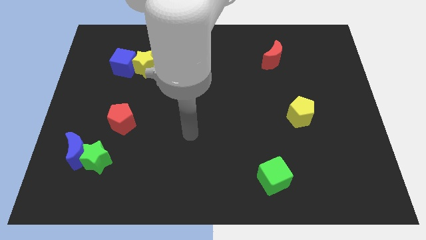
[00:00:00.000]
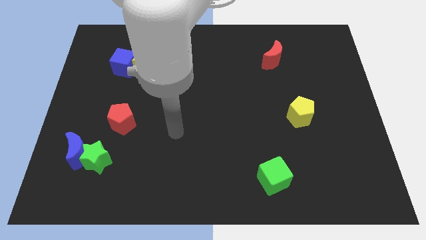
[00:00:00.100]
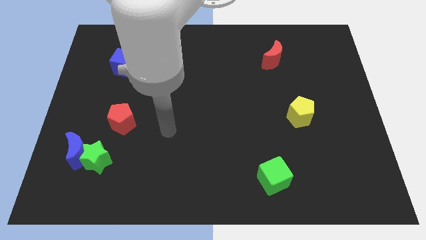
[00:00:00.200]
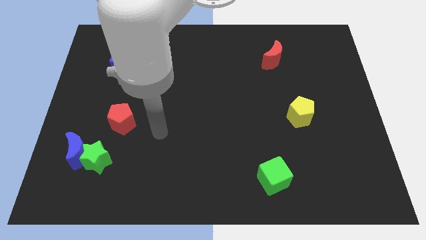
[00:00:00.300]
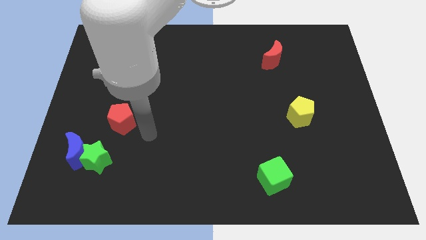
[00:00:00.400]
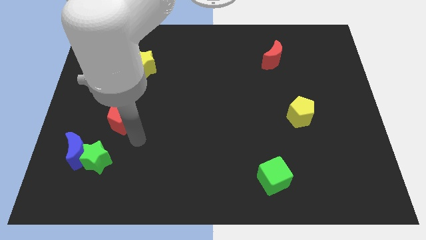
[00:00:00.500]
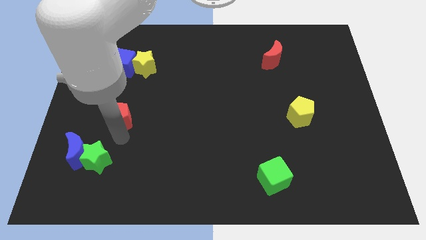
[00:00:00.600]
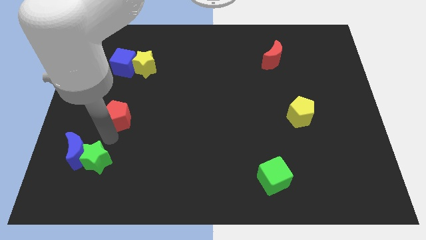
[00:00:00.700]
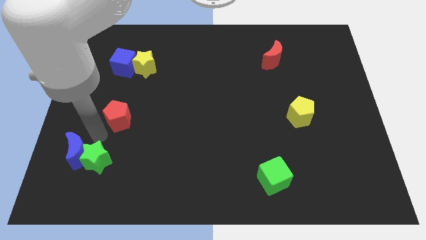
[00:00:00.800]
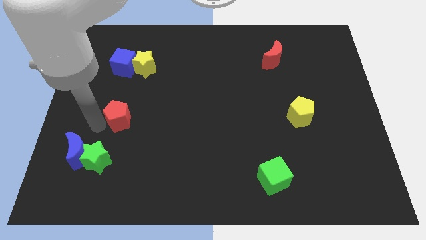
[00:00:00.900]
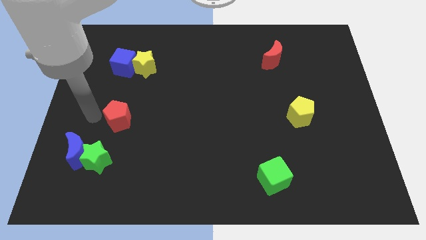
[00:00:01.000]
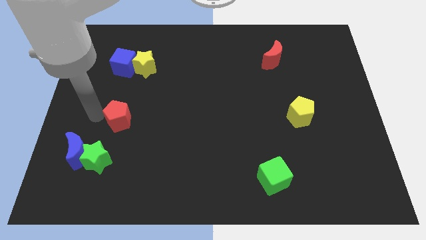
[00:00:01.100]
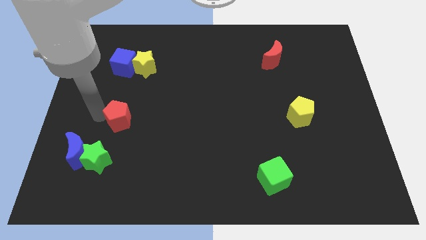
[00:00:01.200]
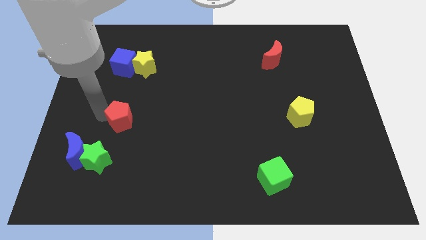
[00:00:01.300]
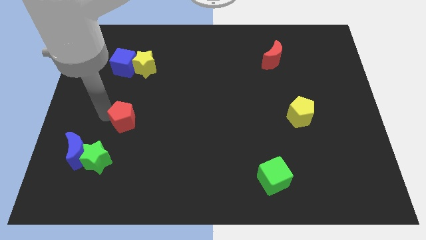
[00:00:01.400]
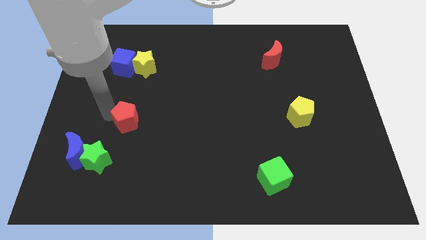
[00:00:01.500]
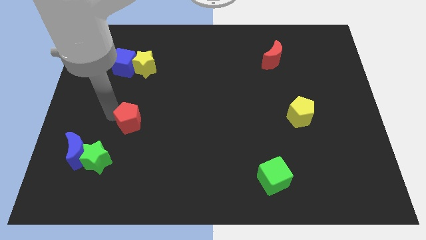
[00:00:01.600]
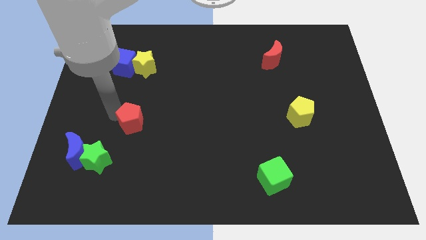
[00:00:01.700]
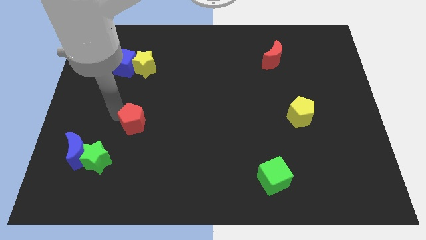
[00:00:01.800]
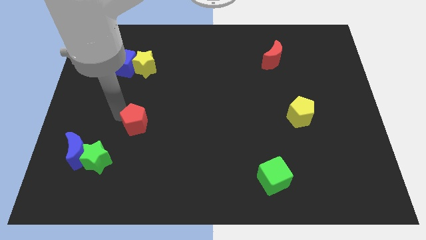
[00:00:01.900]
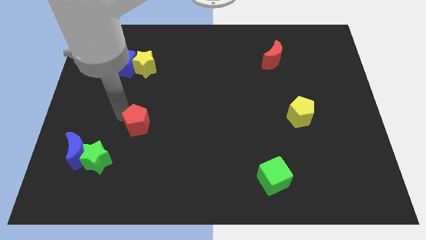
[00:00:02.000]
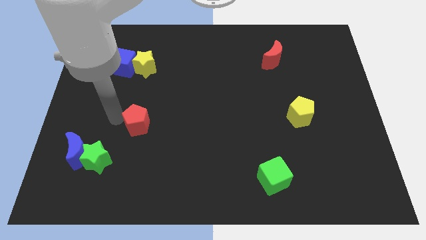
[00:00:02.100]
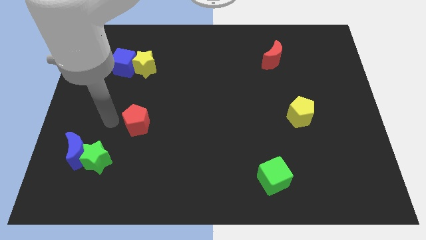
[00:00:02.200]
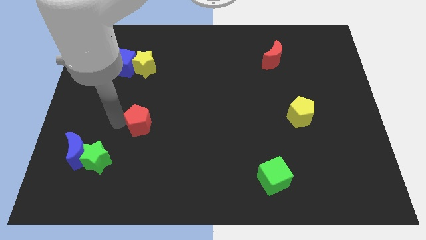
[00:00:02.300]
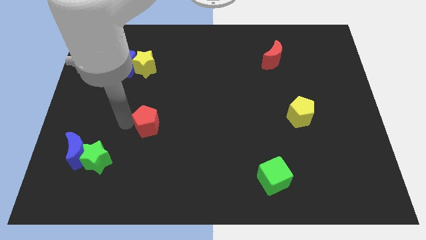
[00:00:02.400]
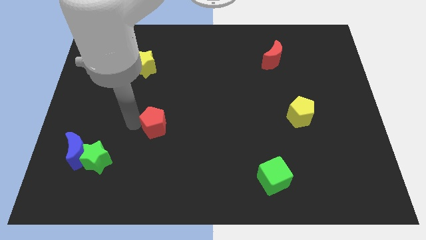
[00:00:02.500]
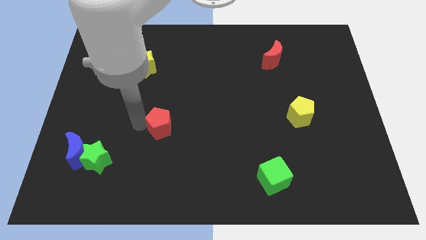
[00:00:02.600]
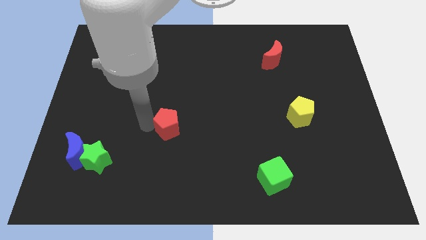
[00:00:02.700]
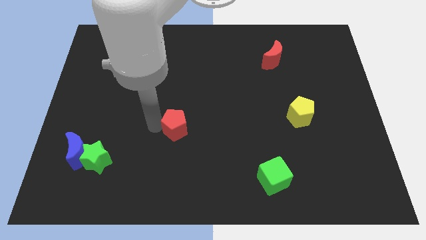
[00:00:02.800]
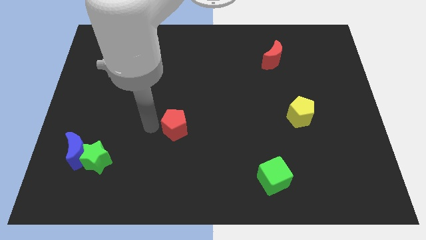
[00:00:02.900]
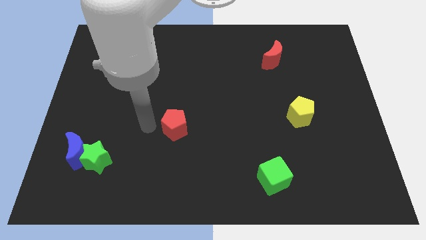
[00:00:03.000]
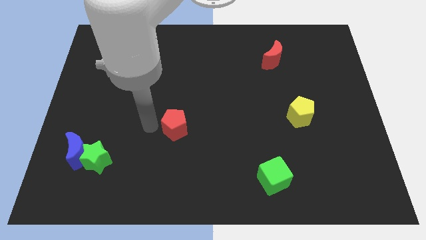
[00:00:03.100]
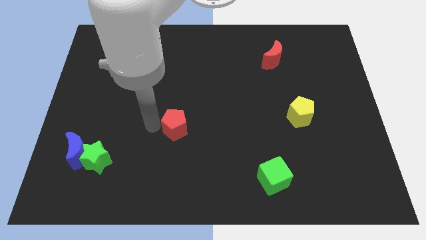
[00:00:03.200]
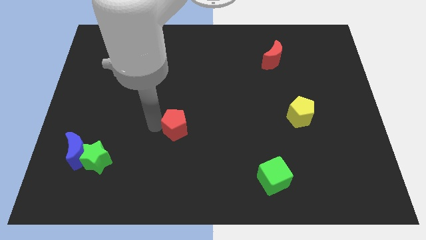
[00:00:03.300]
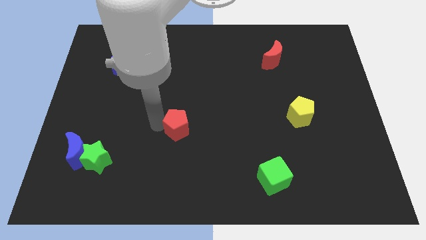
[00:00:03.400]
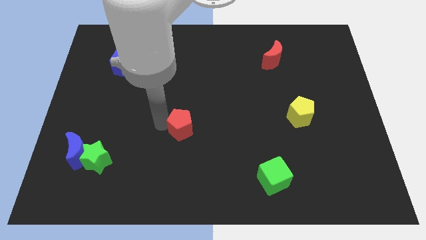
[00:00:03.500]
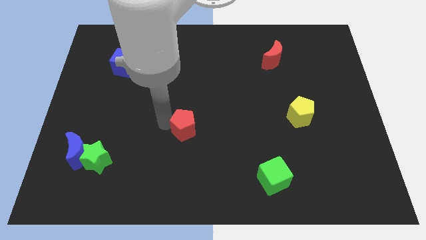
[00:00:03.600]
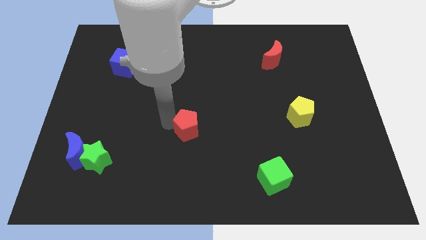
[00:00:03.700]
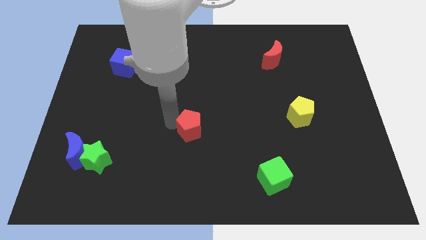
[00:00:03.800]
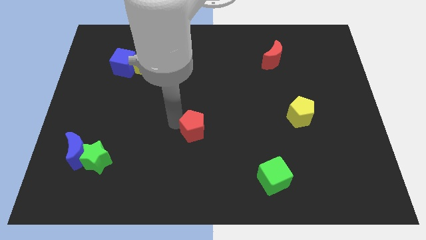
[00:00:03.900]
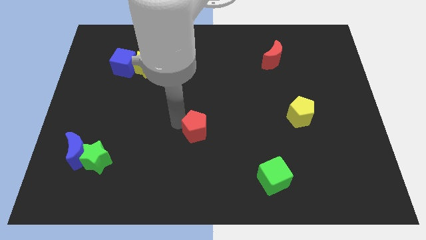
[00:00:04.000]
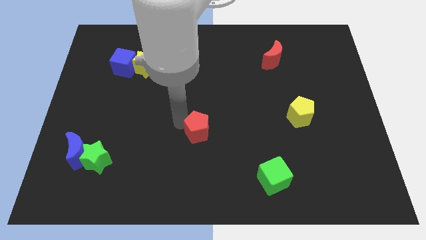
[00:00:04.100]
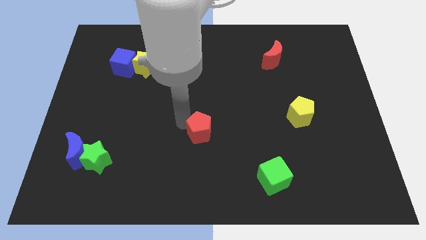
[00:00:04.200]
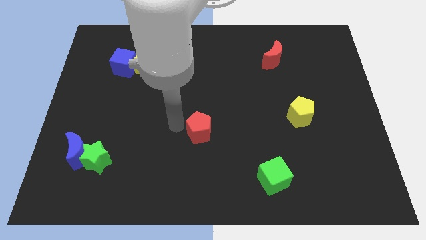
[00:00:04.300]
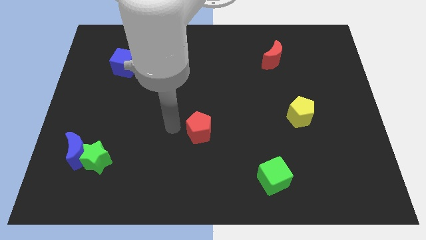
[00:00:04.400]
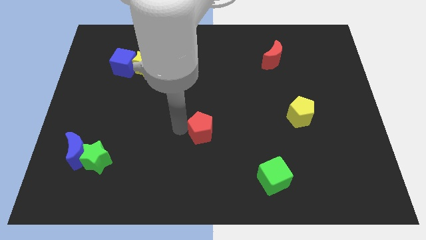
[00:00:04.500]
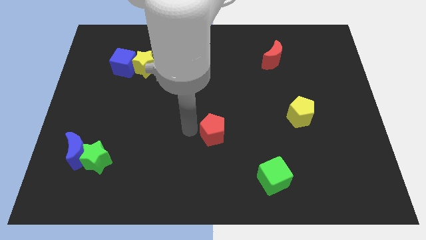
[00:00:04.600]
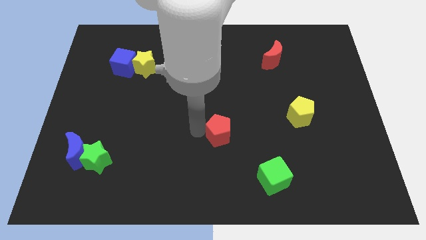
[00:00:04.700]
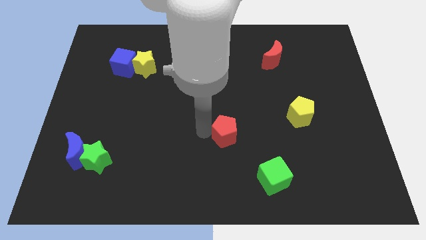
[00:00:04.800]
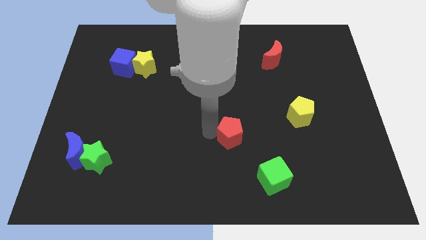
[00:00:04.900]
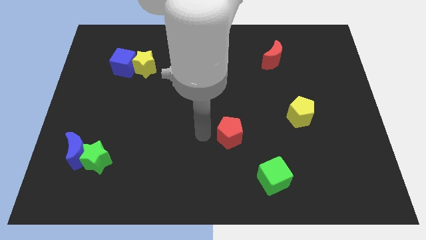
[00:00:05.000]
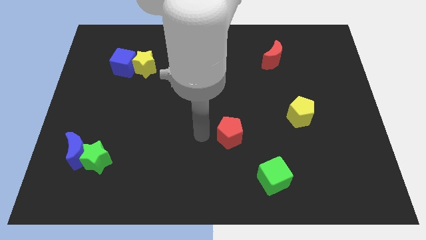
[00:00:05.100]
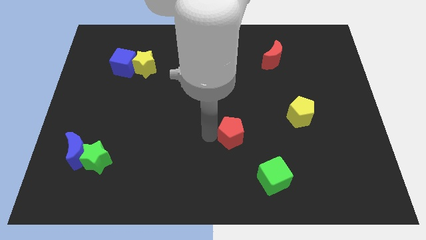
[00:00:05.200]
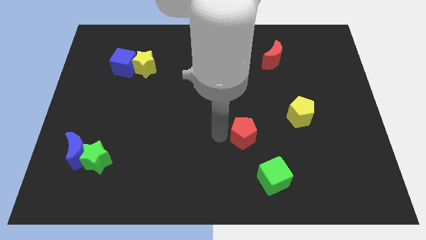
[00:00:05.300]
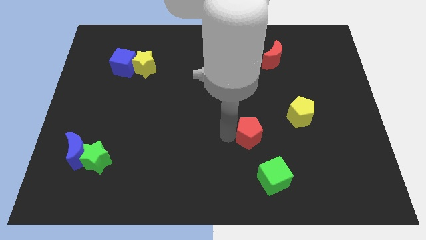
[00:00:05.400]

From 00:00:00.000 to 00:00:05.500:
push the red pentagon above the green cube

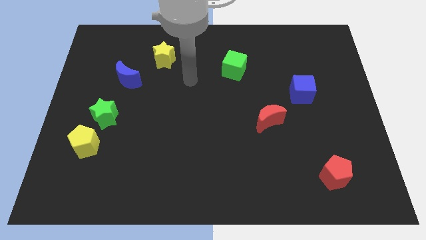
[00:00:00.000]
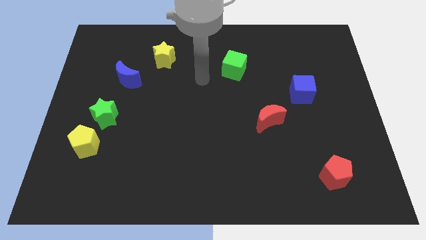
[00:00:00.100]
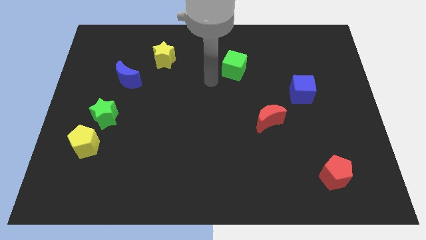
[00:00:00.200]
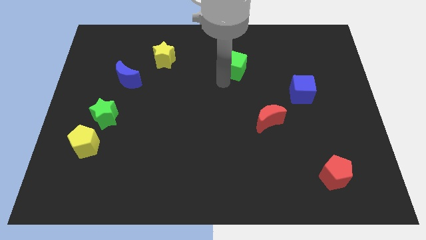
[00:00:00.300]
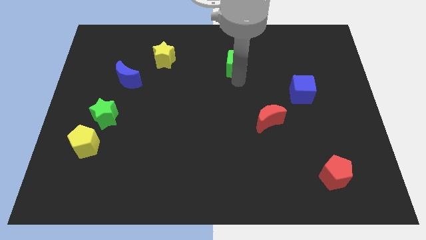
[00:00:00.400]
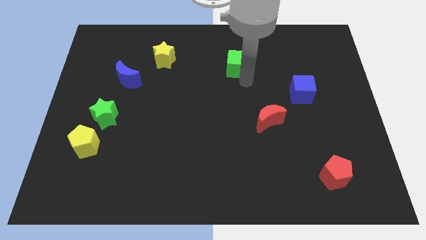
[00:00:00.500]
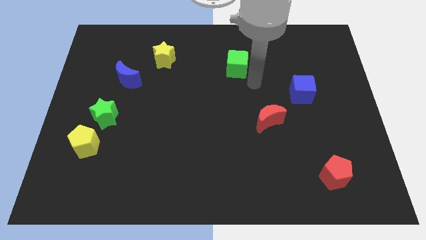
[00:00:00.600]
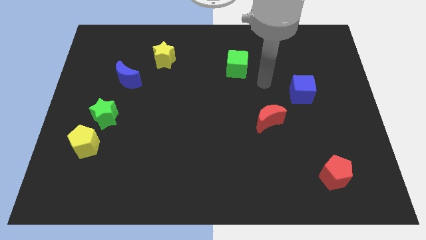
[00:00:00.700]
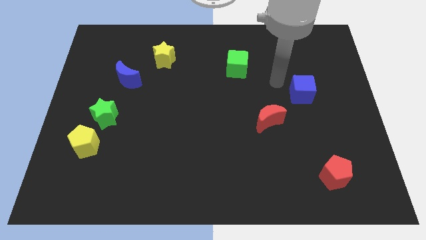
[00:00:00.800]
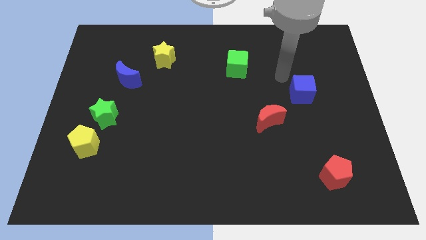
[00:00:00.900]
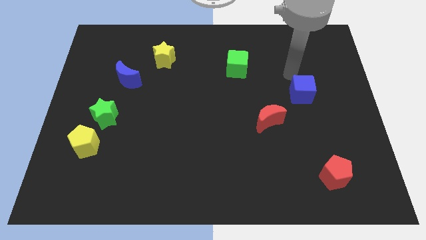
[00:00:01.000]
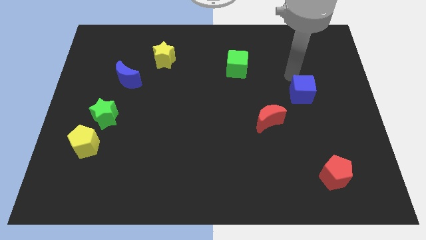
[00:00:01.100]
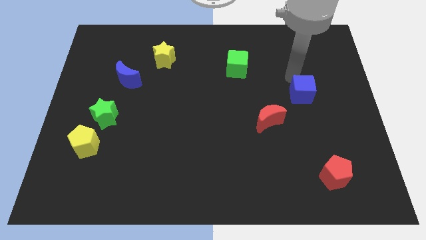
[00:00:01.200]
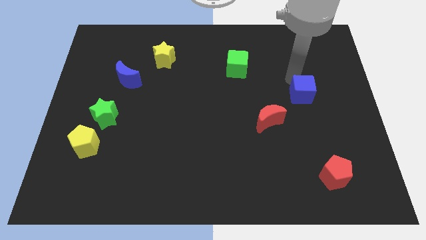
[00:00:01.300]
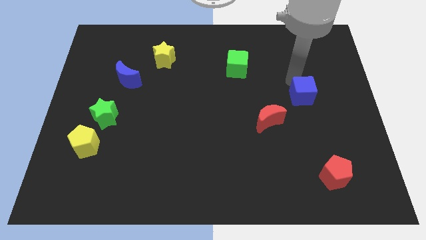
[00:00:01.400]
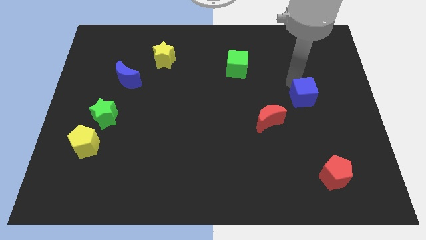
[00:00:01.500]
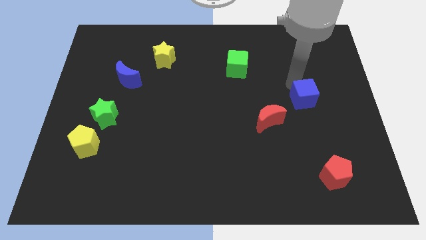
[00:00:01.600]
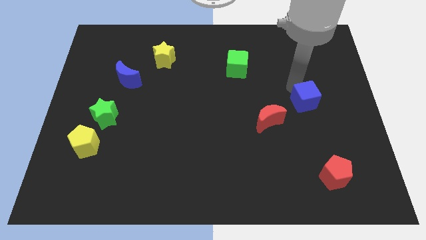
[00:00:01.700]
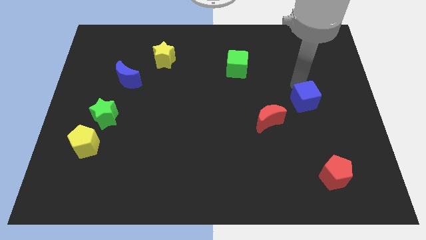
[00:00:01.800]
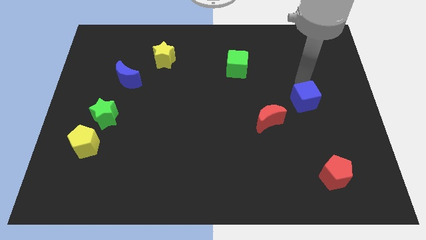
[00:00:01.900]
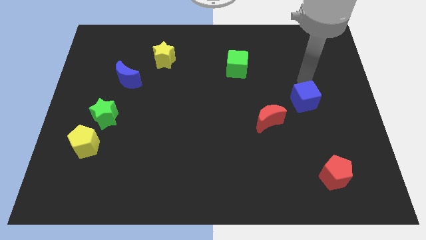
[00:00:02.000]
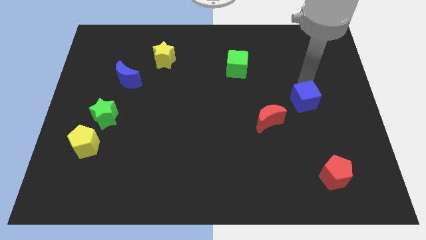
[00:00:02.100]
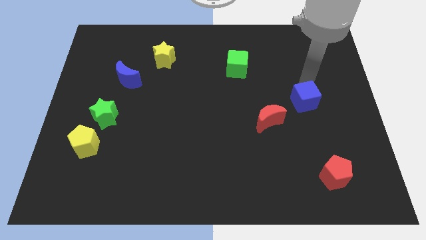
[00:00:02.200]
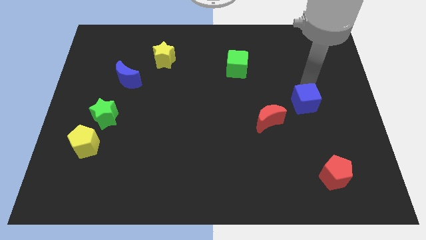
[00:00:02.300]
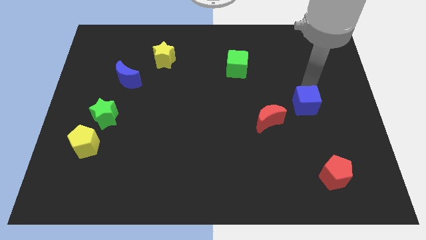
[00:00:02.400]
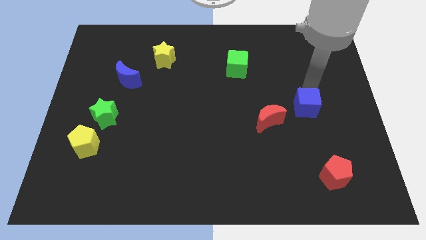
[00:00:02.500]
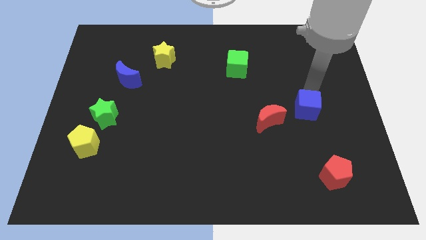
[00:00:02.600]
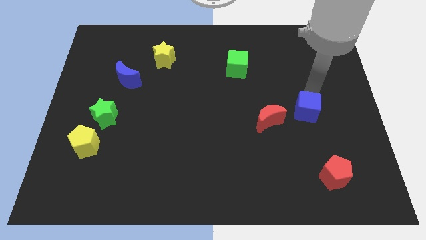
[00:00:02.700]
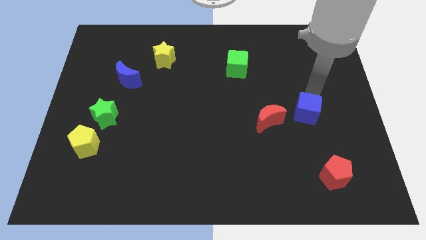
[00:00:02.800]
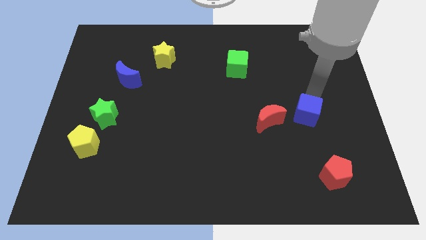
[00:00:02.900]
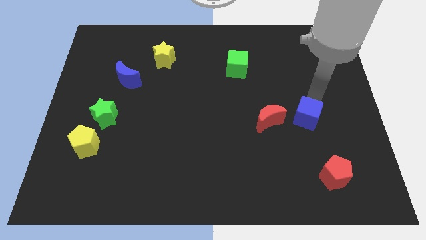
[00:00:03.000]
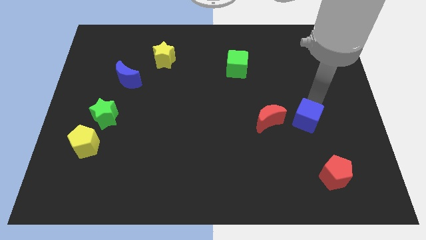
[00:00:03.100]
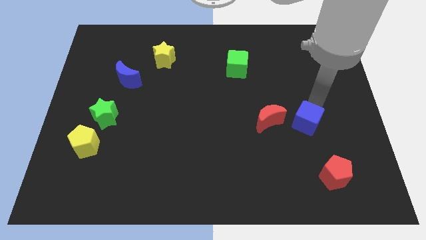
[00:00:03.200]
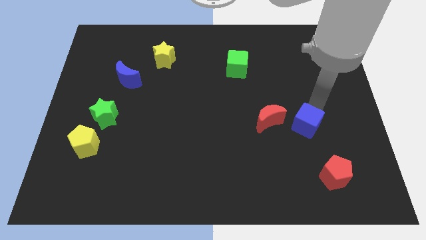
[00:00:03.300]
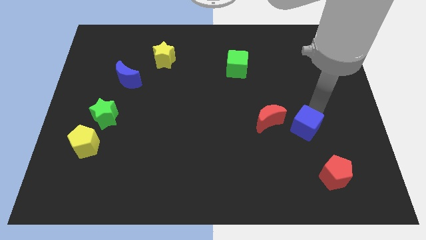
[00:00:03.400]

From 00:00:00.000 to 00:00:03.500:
put the blue cube diagonally down and to the right of the red moon
